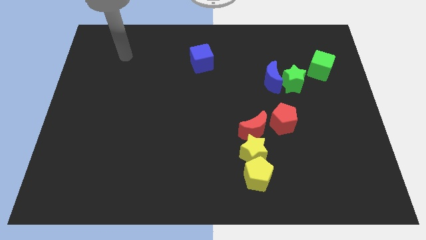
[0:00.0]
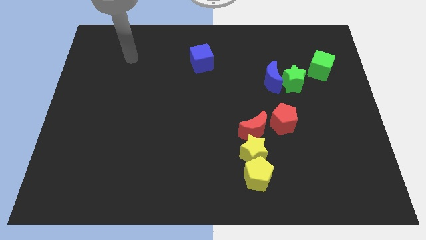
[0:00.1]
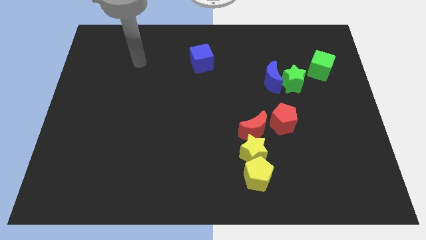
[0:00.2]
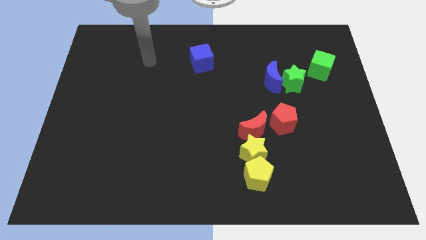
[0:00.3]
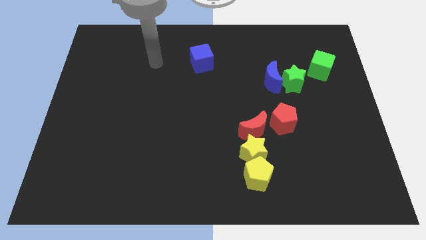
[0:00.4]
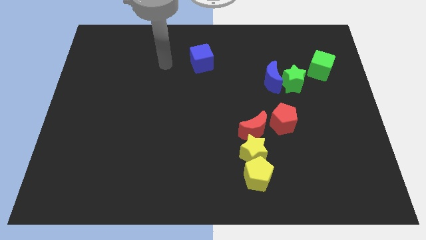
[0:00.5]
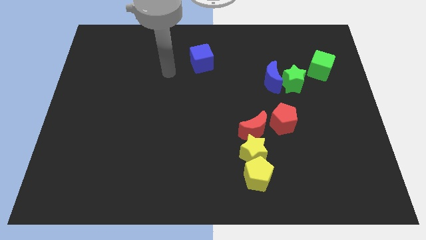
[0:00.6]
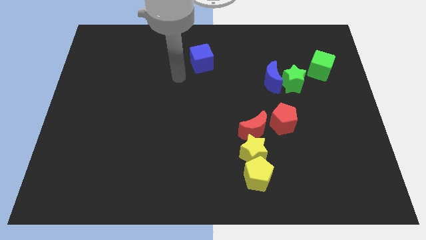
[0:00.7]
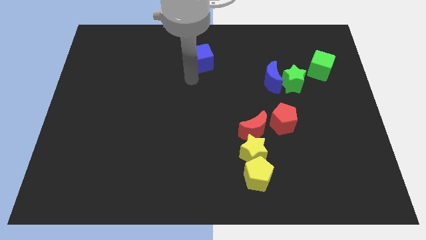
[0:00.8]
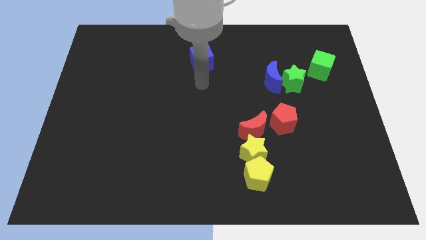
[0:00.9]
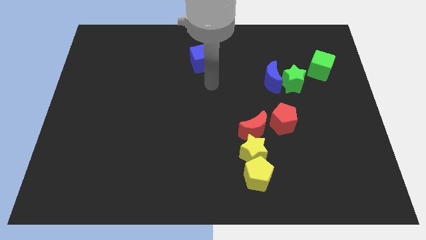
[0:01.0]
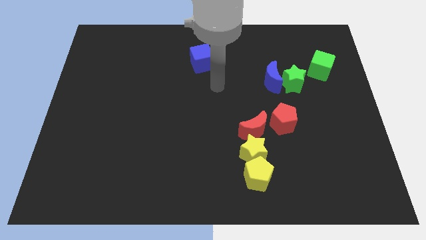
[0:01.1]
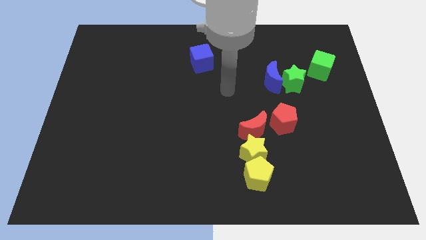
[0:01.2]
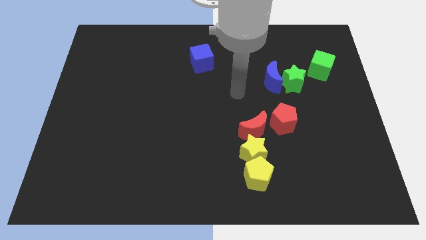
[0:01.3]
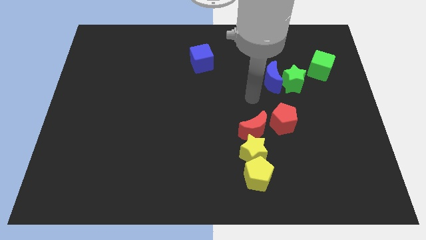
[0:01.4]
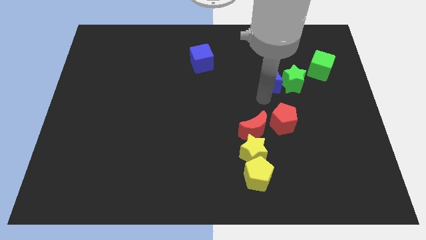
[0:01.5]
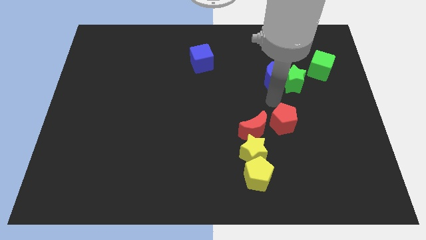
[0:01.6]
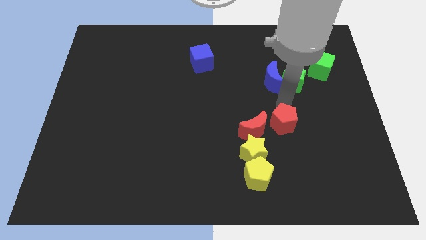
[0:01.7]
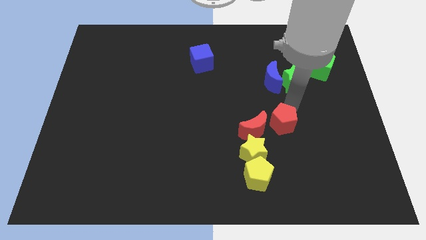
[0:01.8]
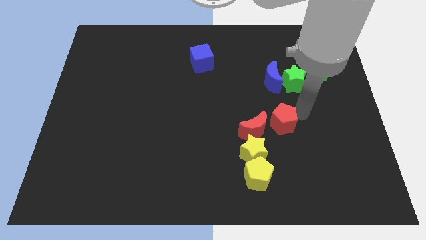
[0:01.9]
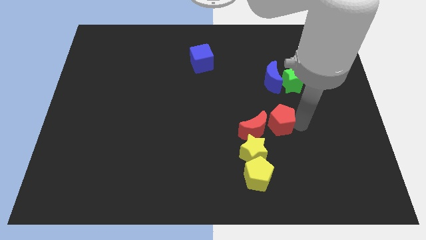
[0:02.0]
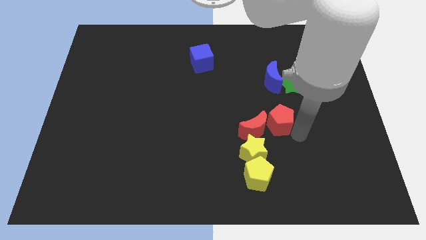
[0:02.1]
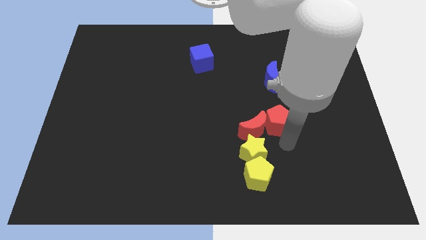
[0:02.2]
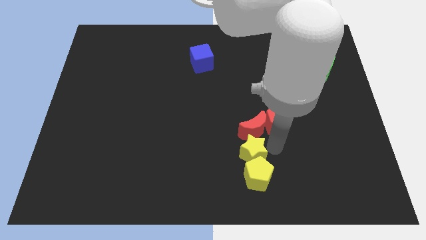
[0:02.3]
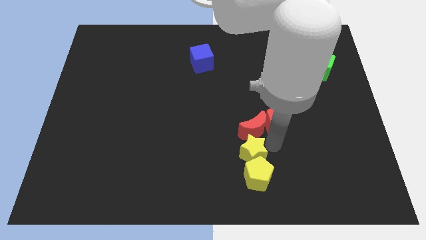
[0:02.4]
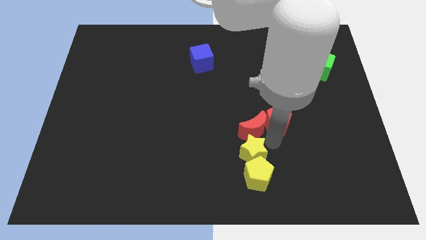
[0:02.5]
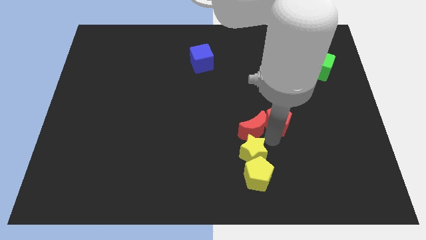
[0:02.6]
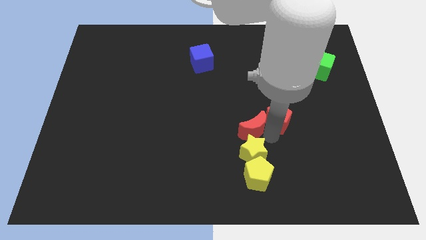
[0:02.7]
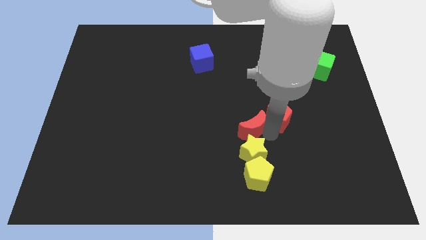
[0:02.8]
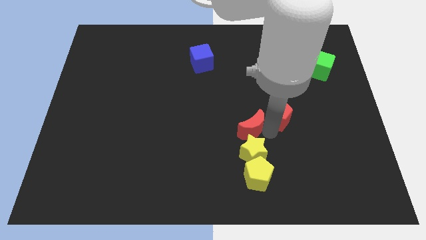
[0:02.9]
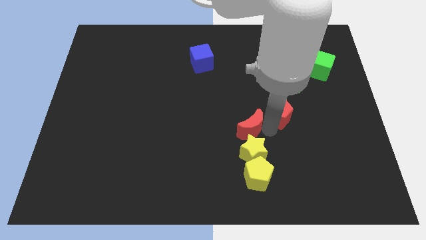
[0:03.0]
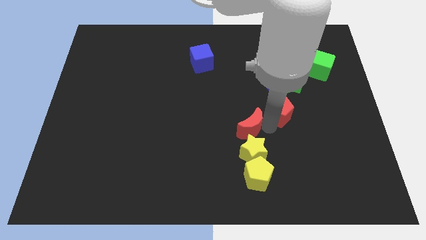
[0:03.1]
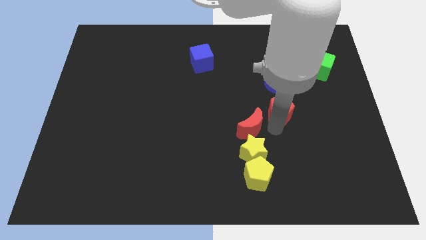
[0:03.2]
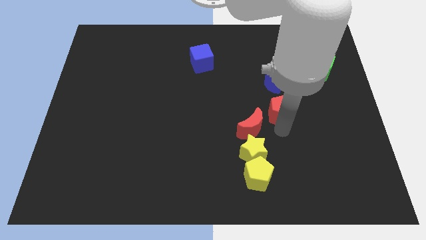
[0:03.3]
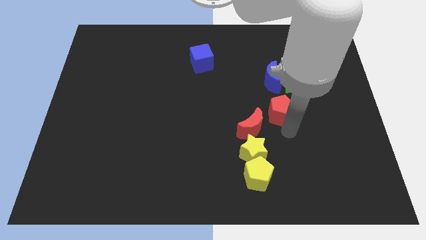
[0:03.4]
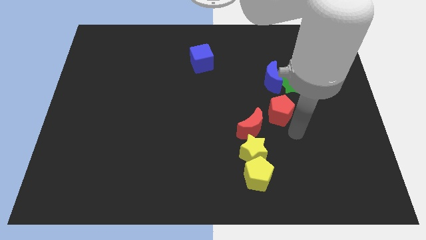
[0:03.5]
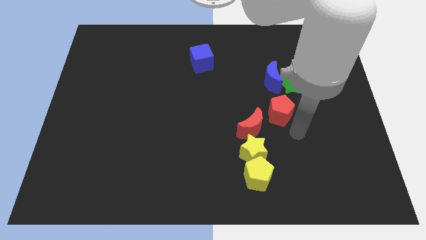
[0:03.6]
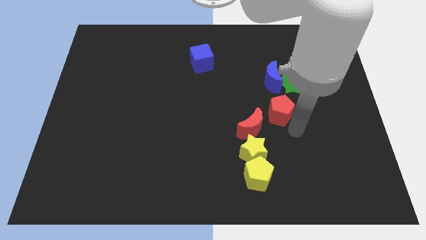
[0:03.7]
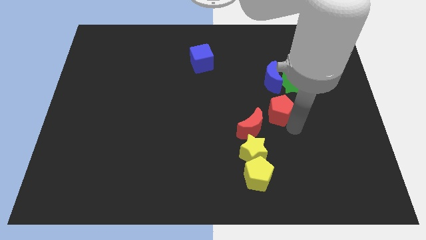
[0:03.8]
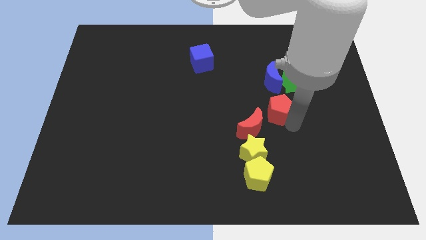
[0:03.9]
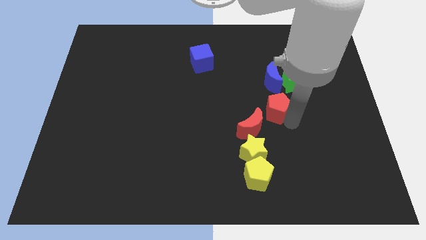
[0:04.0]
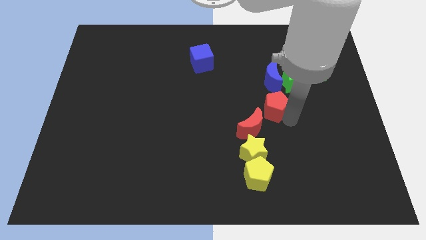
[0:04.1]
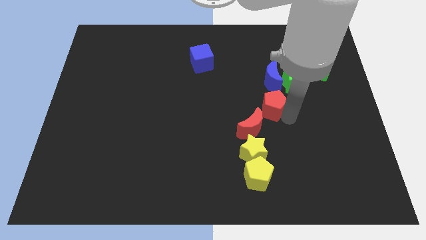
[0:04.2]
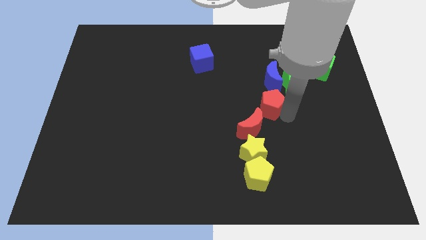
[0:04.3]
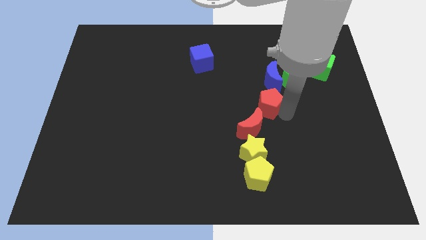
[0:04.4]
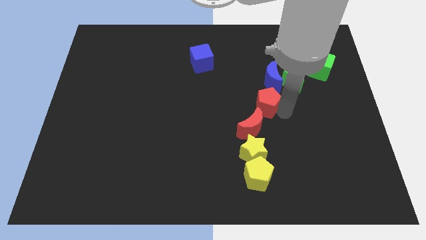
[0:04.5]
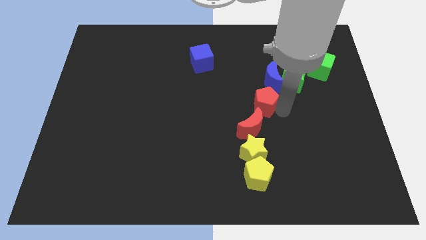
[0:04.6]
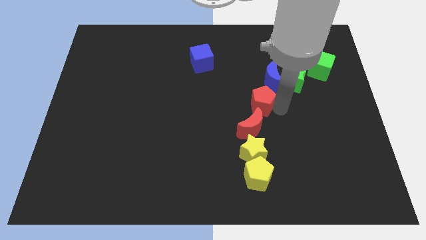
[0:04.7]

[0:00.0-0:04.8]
slide the red pentagon somewhat diagonally upwards and to the left

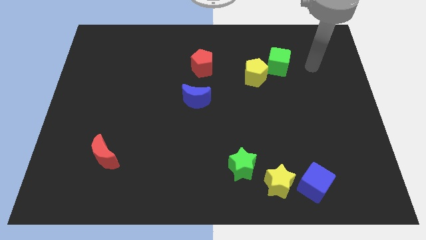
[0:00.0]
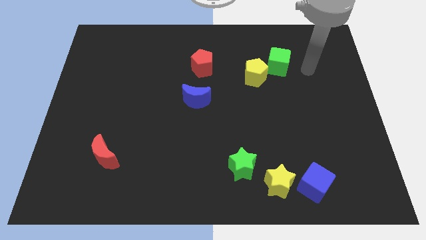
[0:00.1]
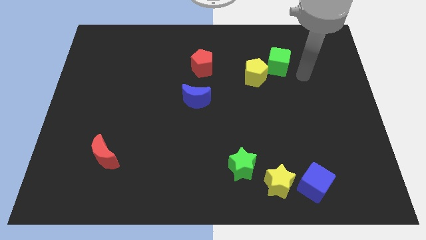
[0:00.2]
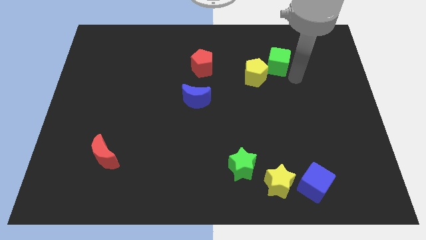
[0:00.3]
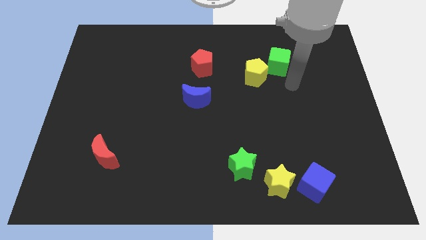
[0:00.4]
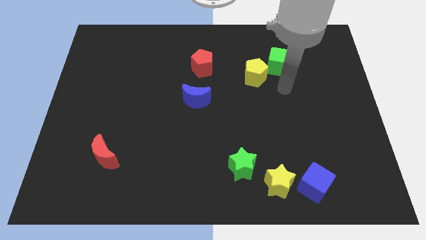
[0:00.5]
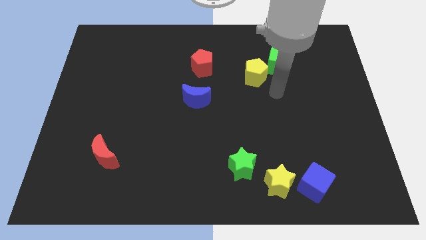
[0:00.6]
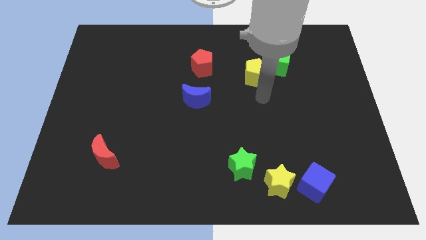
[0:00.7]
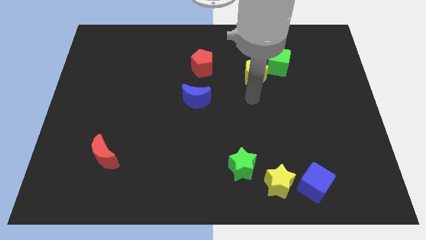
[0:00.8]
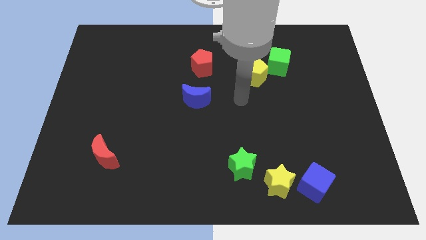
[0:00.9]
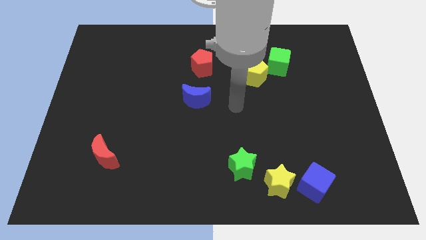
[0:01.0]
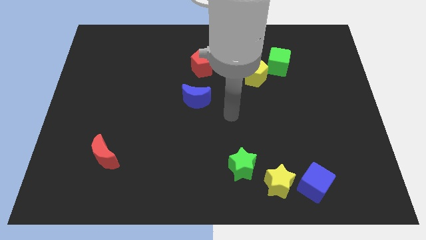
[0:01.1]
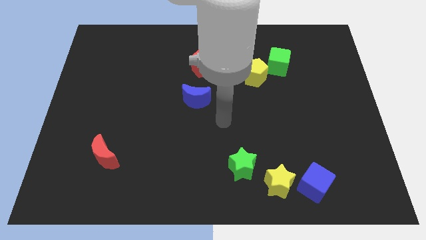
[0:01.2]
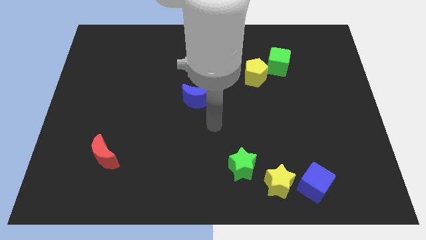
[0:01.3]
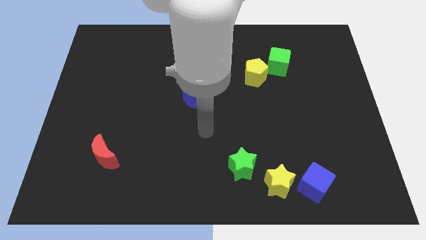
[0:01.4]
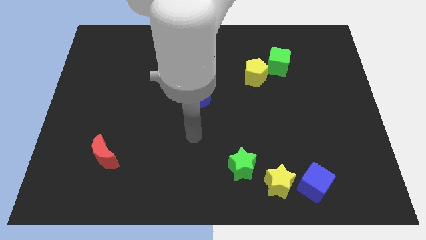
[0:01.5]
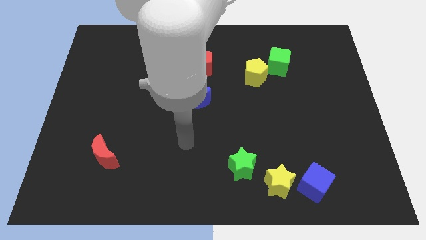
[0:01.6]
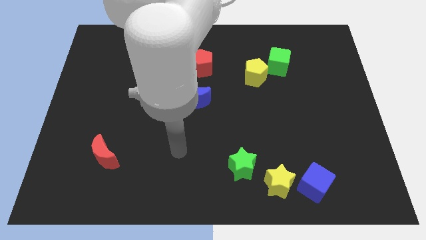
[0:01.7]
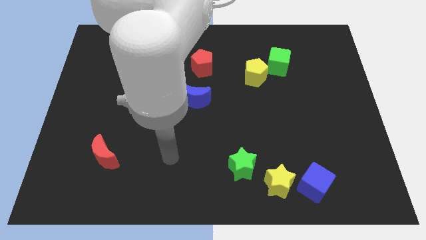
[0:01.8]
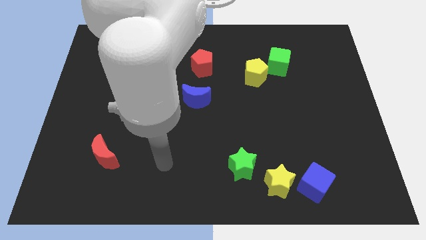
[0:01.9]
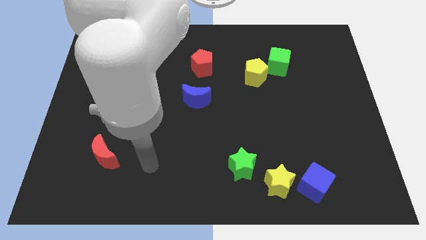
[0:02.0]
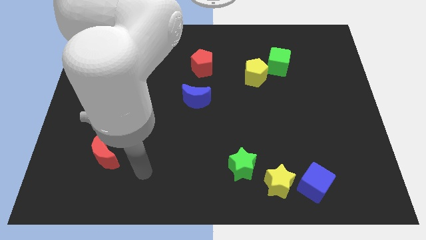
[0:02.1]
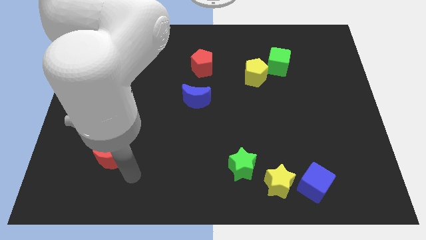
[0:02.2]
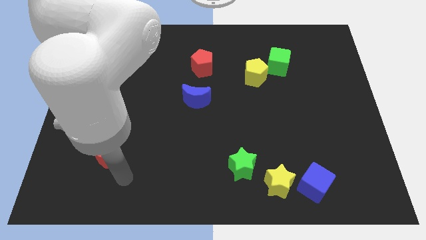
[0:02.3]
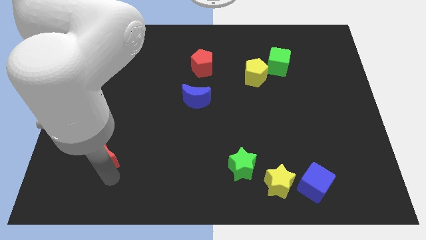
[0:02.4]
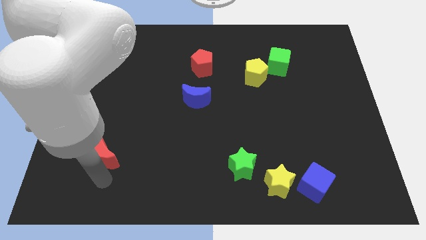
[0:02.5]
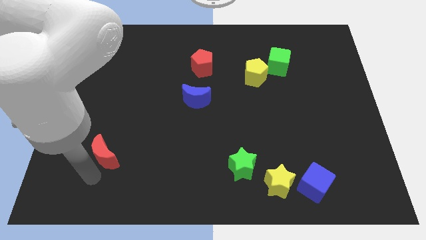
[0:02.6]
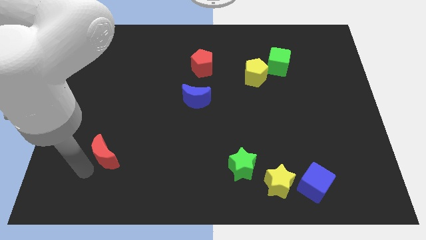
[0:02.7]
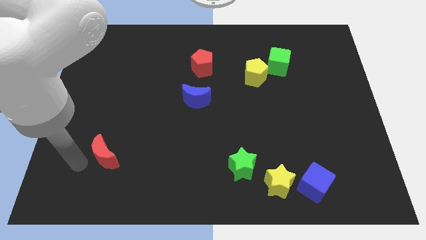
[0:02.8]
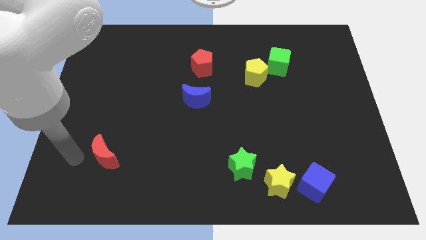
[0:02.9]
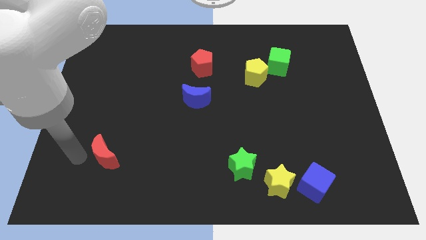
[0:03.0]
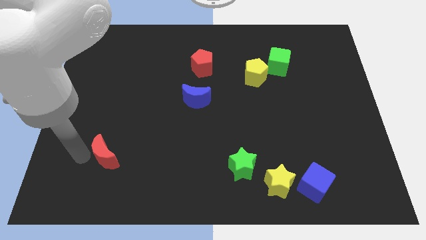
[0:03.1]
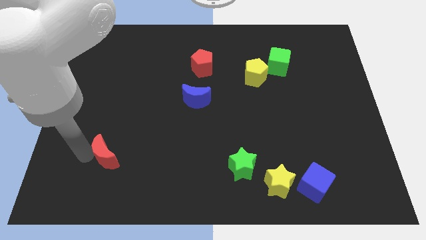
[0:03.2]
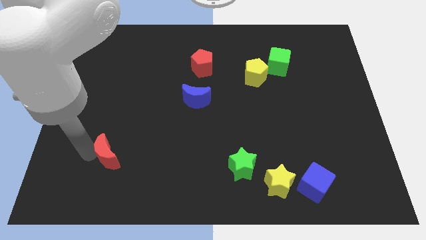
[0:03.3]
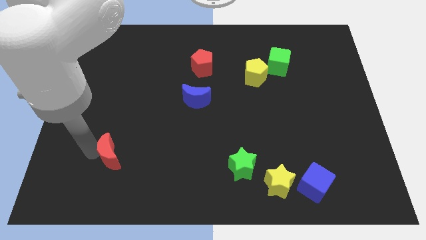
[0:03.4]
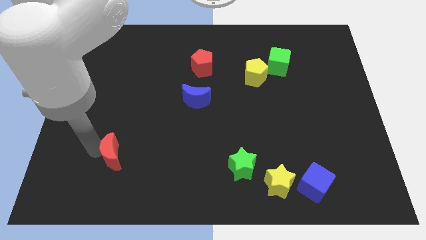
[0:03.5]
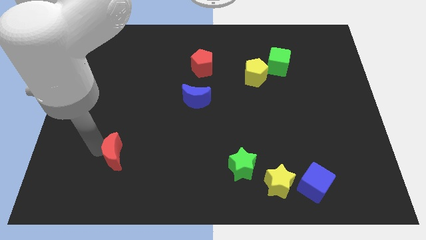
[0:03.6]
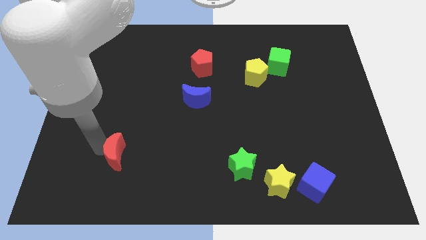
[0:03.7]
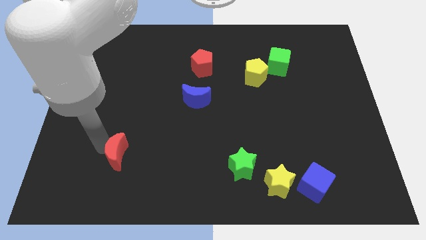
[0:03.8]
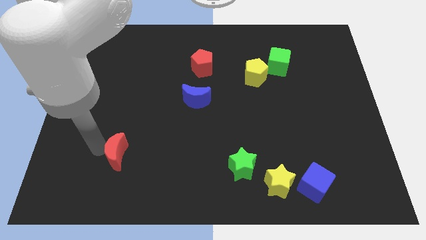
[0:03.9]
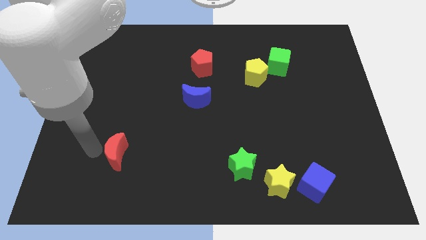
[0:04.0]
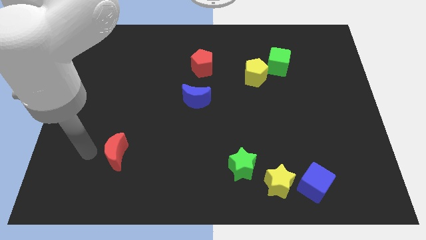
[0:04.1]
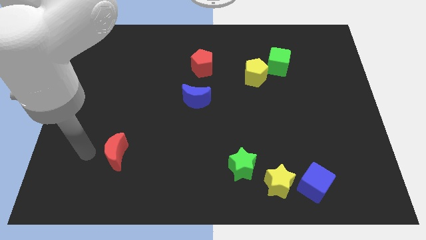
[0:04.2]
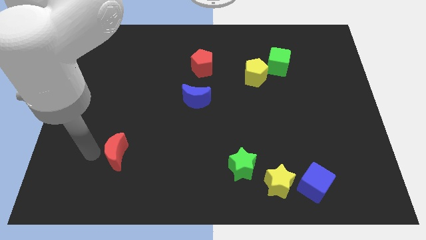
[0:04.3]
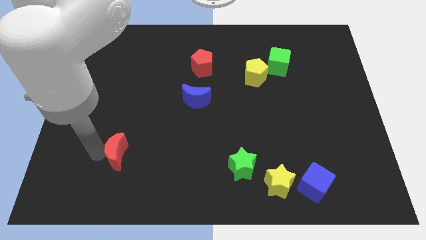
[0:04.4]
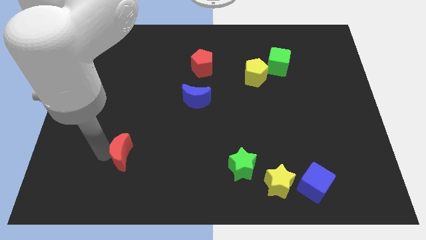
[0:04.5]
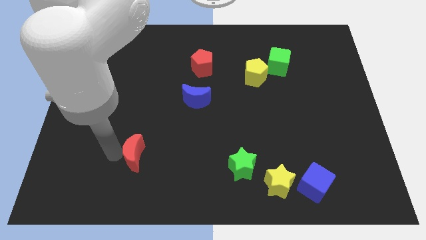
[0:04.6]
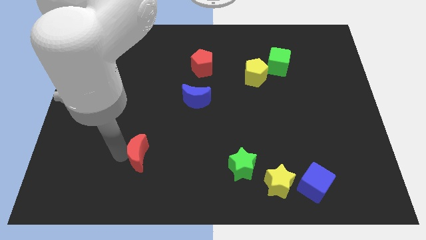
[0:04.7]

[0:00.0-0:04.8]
slightly move the red moon to the right
